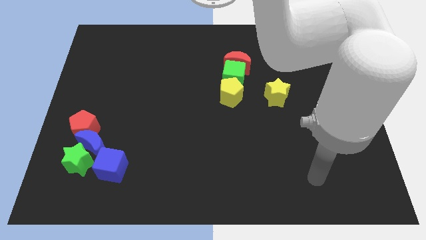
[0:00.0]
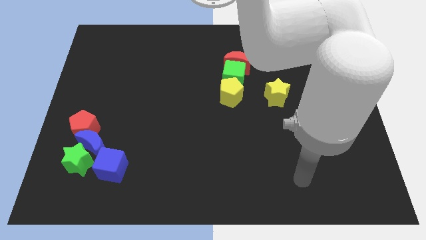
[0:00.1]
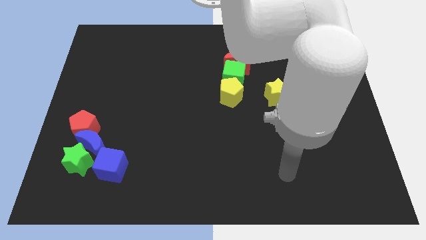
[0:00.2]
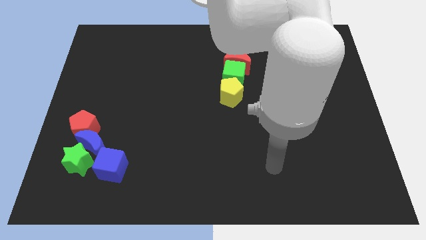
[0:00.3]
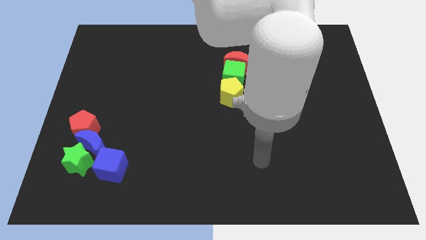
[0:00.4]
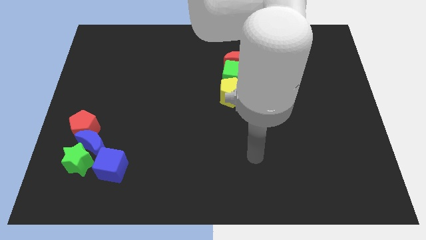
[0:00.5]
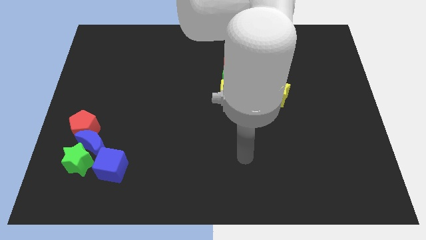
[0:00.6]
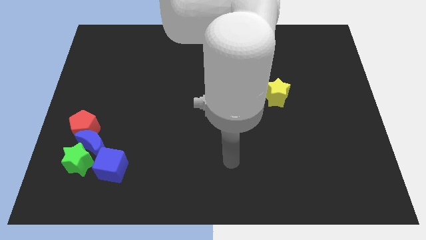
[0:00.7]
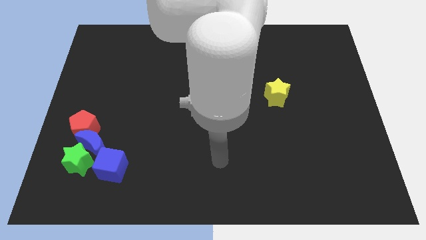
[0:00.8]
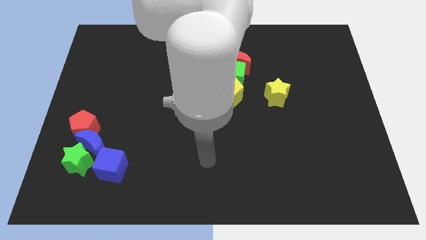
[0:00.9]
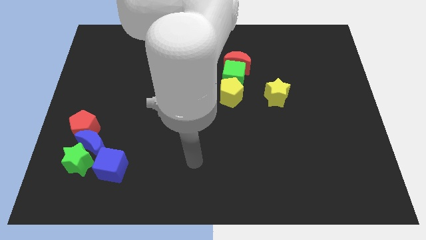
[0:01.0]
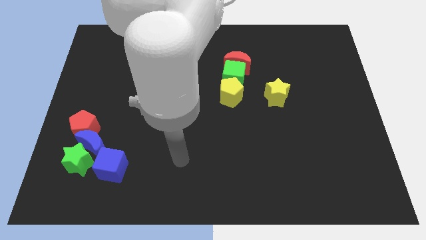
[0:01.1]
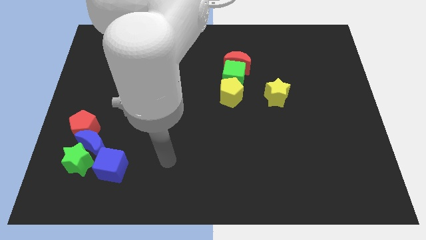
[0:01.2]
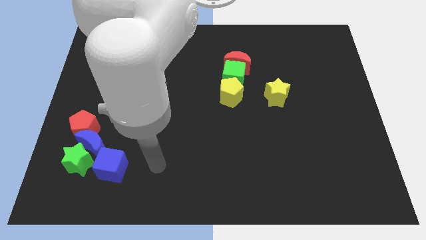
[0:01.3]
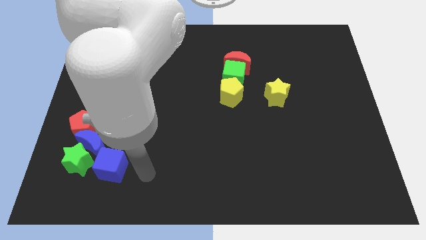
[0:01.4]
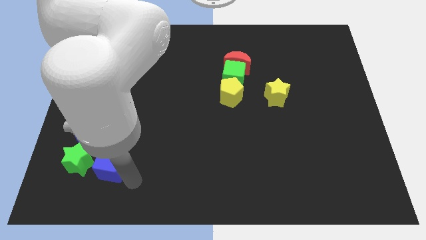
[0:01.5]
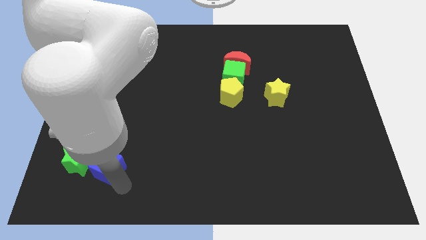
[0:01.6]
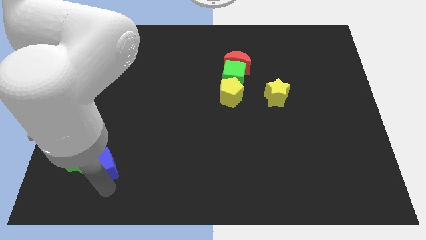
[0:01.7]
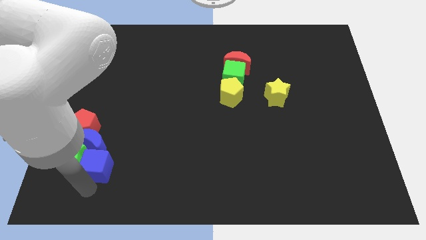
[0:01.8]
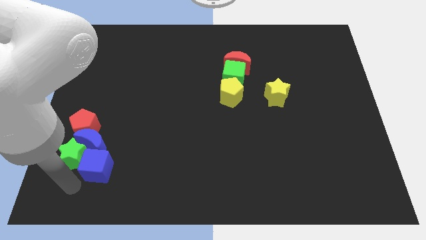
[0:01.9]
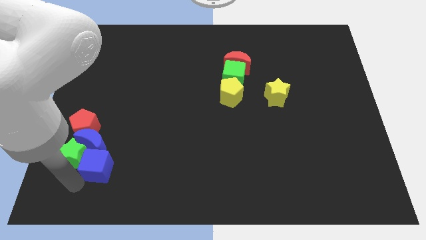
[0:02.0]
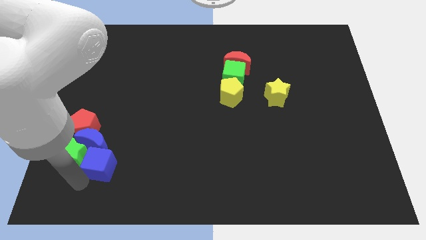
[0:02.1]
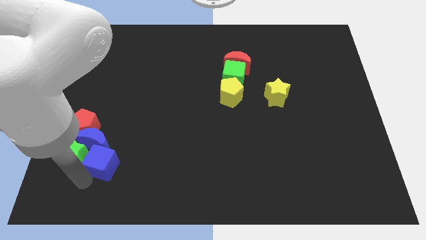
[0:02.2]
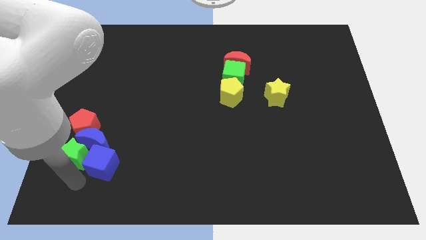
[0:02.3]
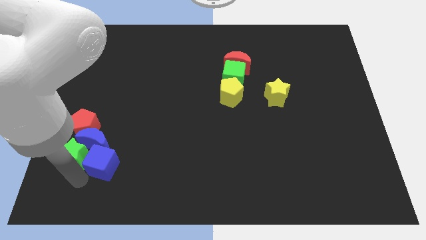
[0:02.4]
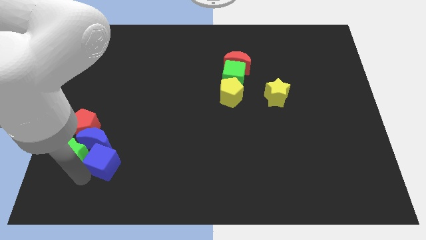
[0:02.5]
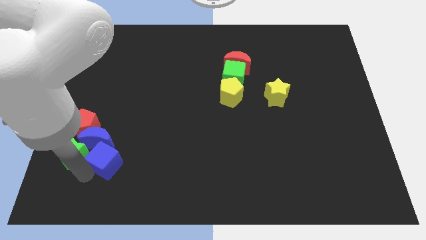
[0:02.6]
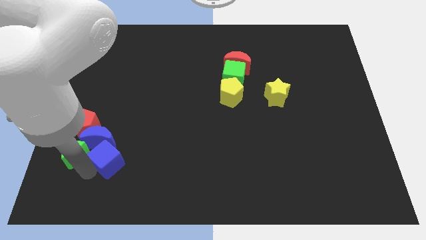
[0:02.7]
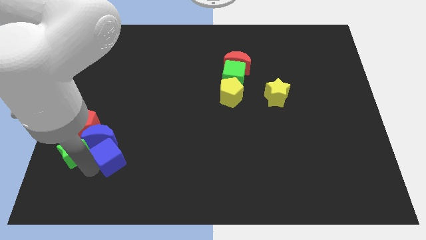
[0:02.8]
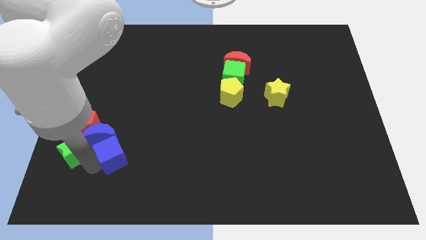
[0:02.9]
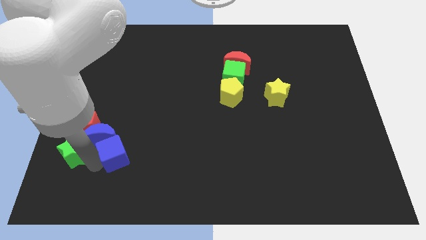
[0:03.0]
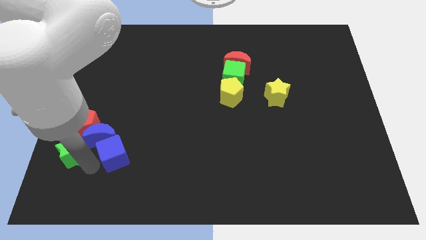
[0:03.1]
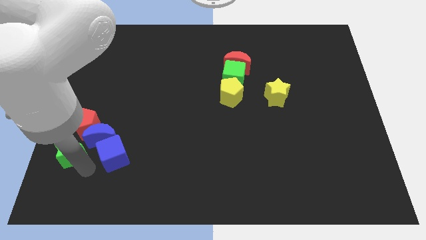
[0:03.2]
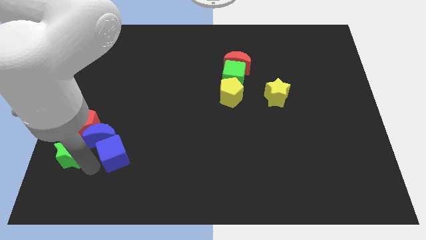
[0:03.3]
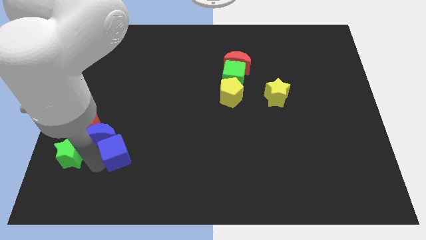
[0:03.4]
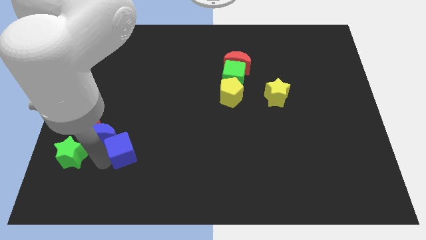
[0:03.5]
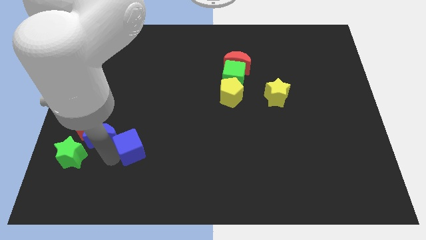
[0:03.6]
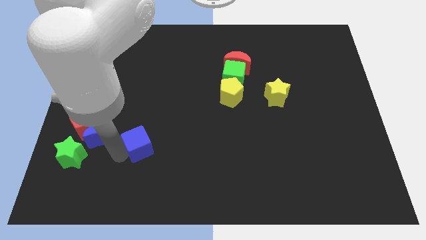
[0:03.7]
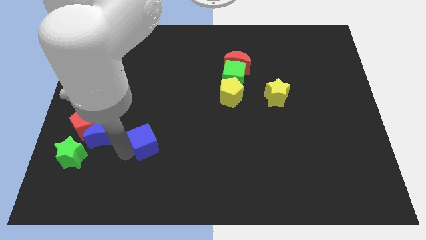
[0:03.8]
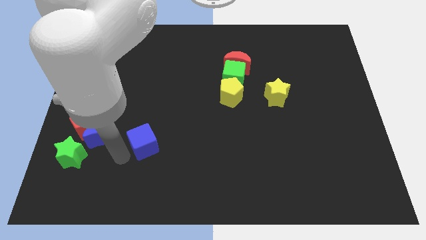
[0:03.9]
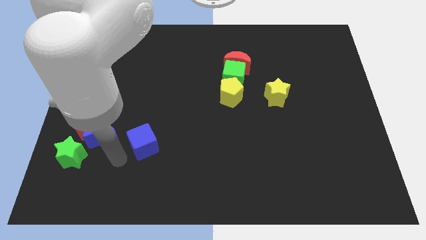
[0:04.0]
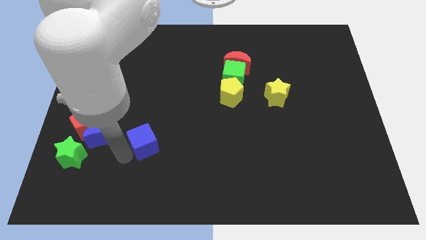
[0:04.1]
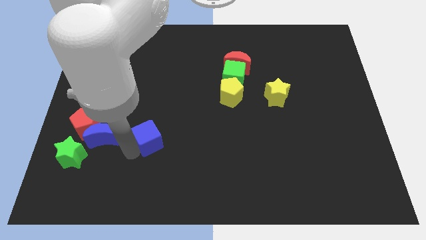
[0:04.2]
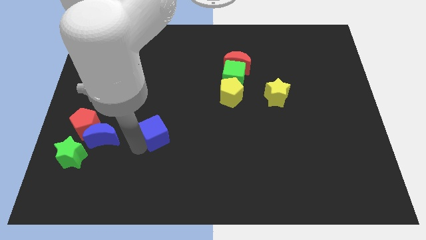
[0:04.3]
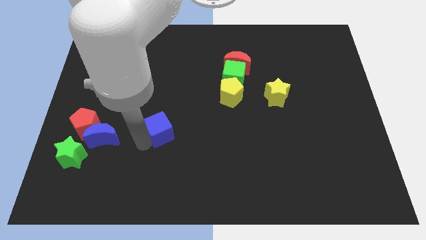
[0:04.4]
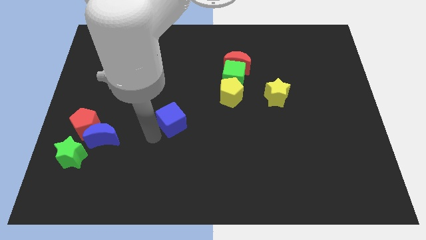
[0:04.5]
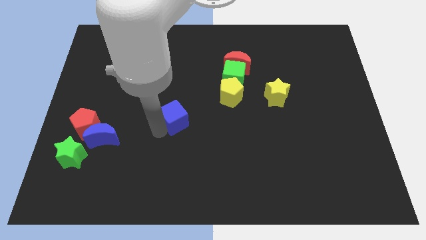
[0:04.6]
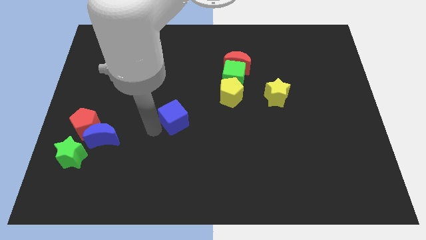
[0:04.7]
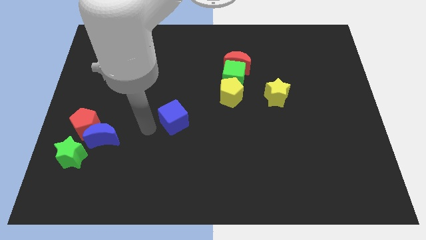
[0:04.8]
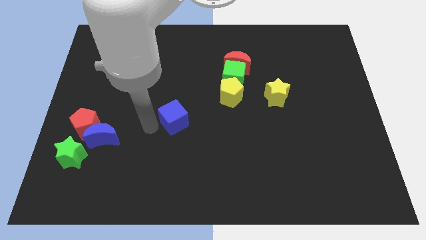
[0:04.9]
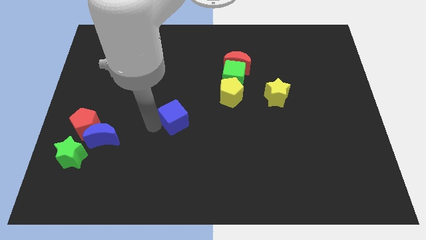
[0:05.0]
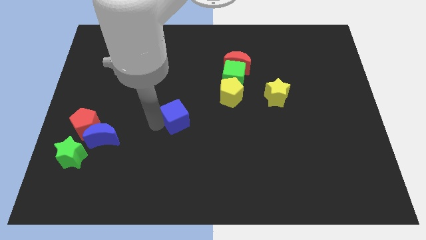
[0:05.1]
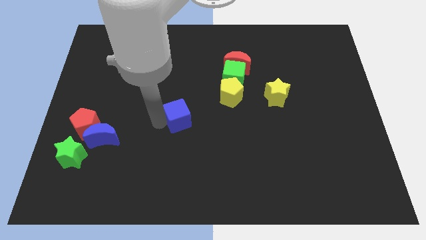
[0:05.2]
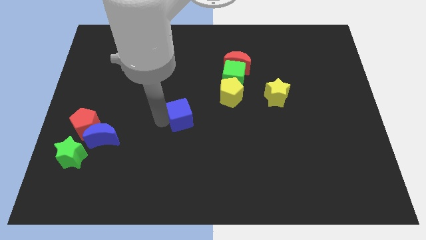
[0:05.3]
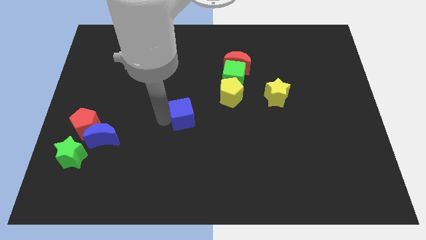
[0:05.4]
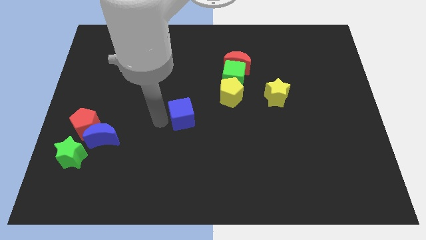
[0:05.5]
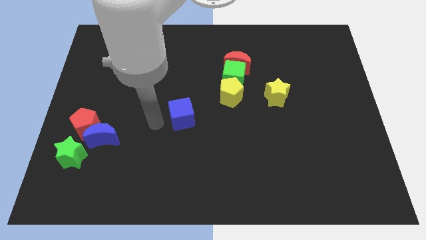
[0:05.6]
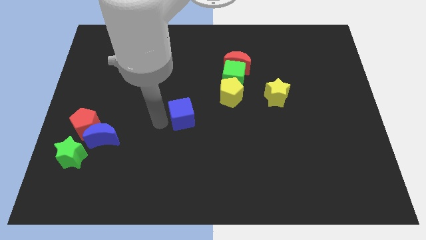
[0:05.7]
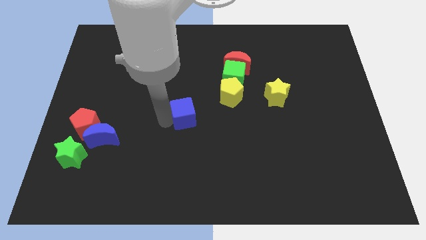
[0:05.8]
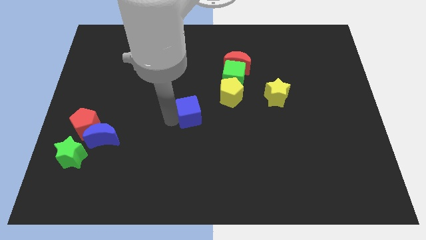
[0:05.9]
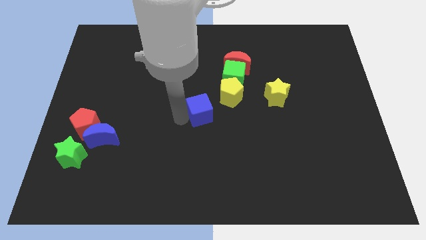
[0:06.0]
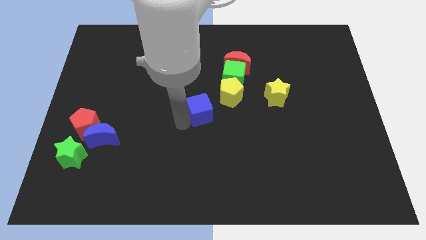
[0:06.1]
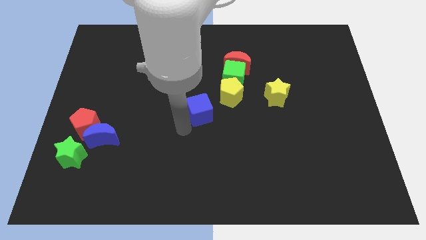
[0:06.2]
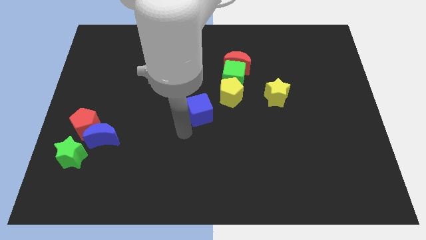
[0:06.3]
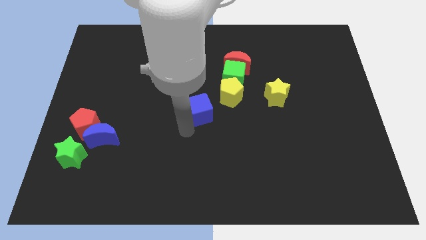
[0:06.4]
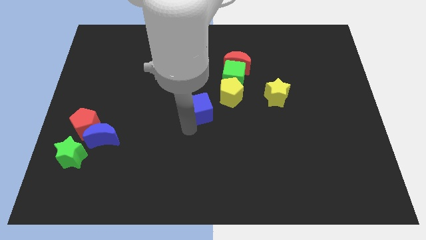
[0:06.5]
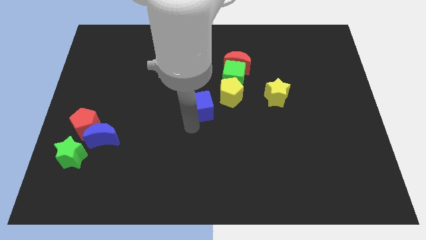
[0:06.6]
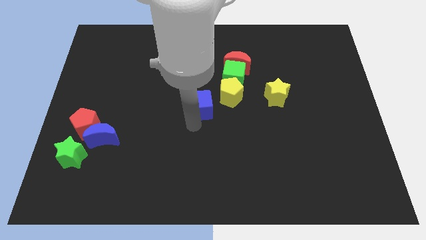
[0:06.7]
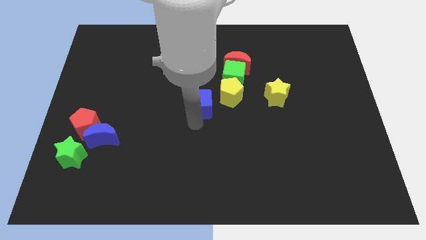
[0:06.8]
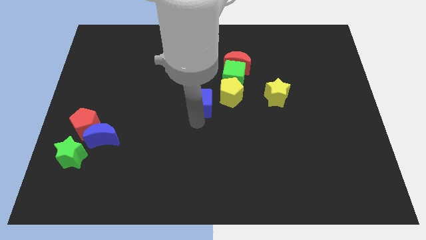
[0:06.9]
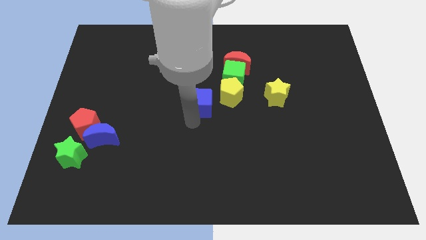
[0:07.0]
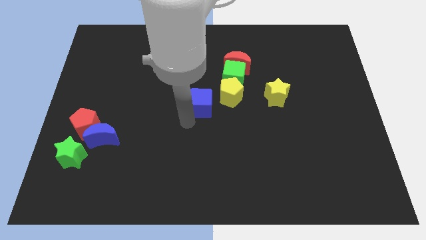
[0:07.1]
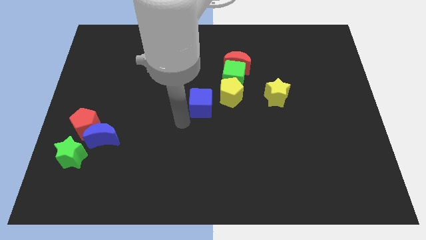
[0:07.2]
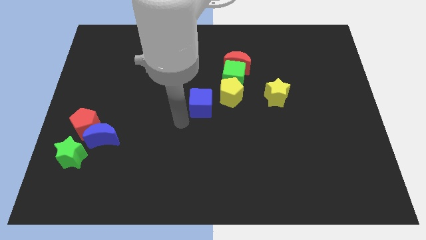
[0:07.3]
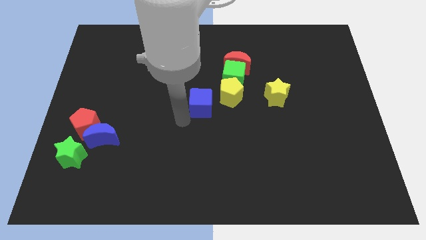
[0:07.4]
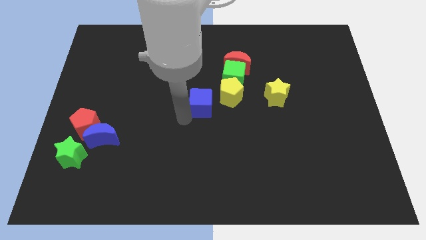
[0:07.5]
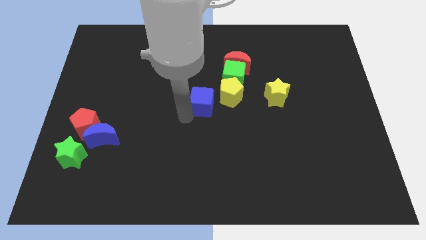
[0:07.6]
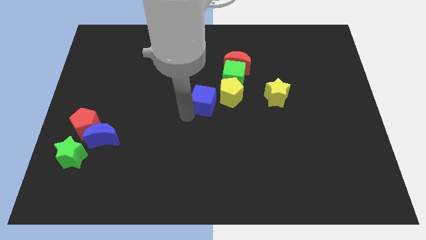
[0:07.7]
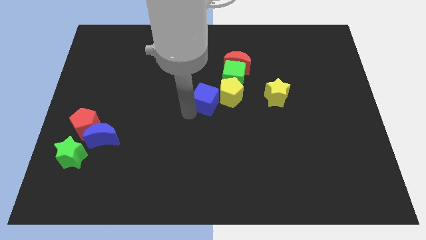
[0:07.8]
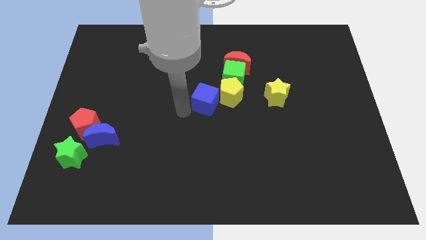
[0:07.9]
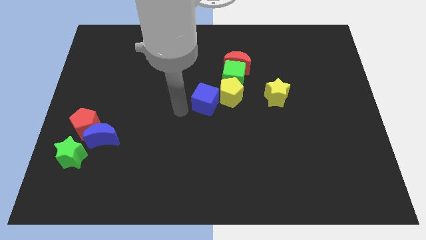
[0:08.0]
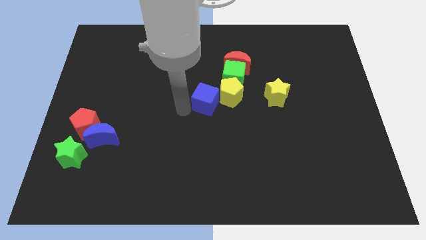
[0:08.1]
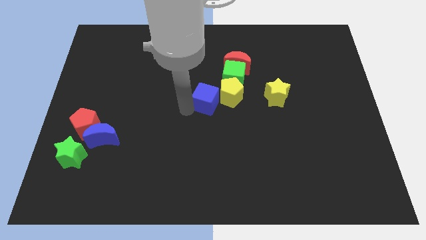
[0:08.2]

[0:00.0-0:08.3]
slide the blue cube next to the yellow pentagon
